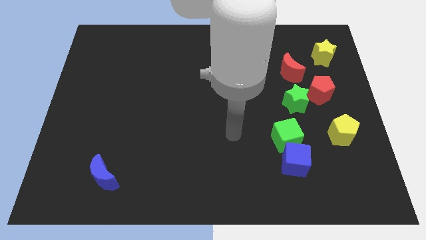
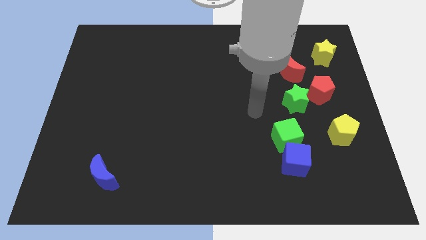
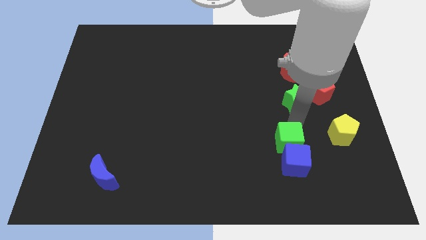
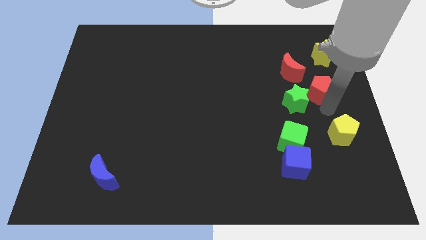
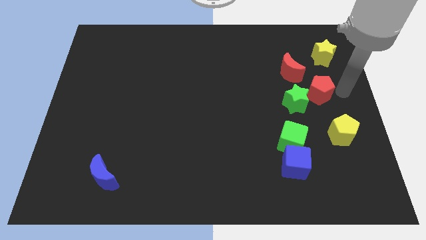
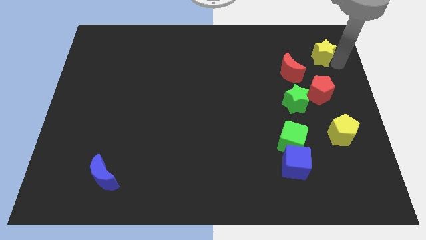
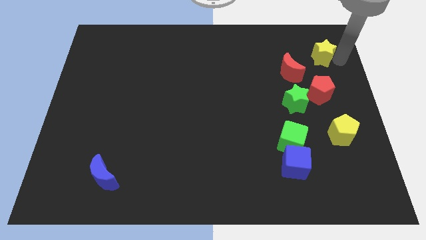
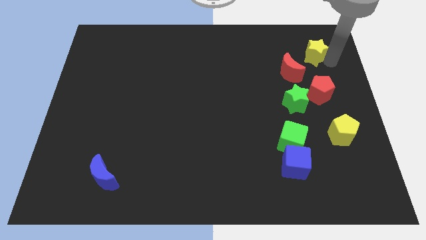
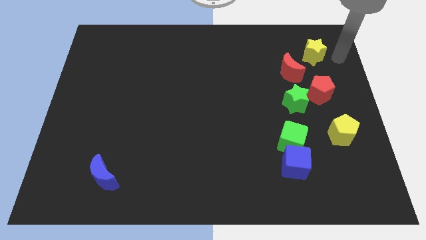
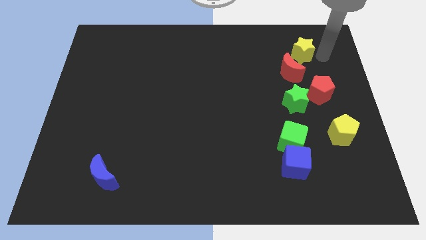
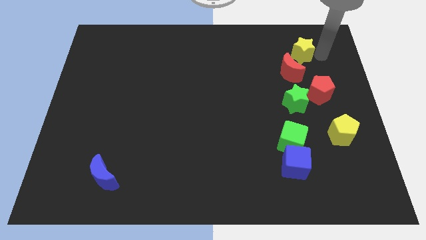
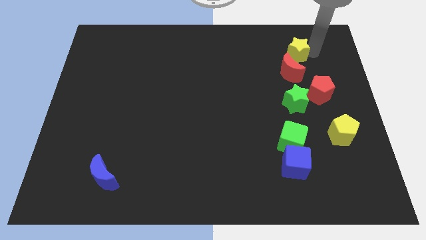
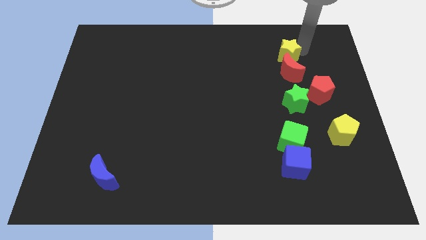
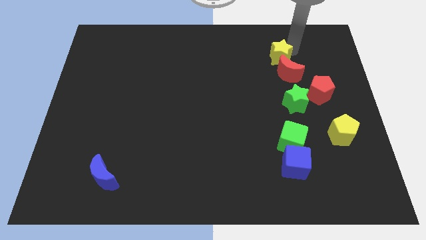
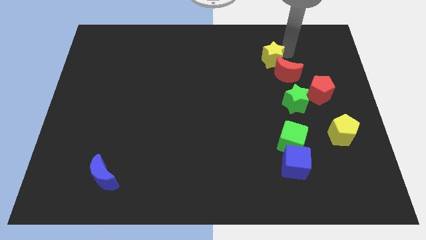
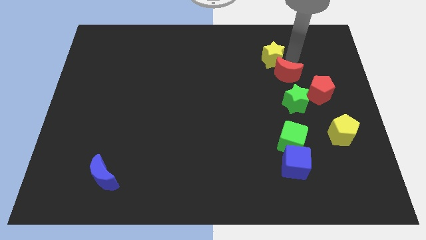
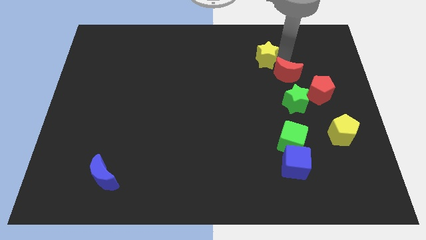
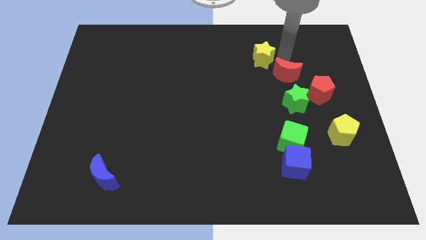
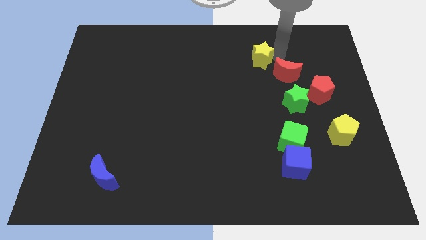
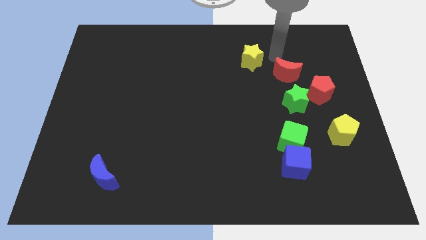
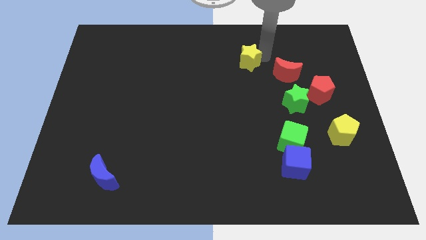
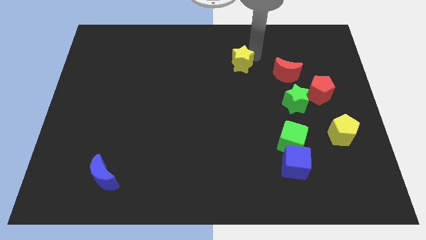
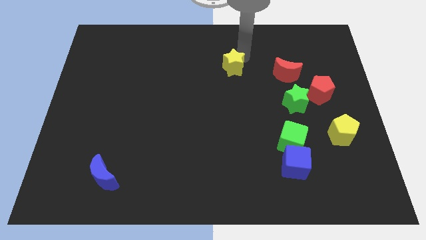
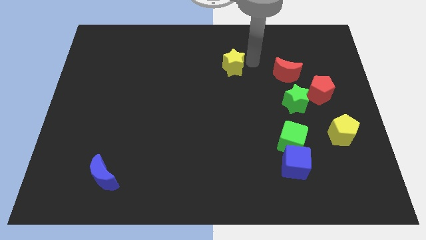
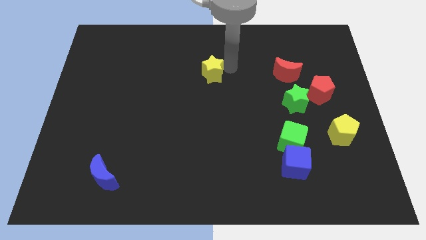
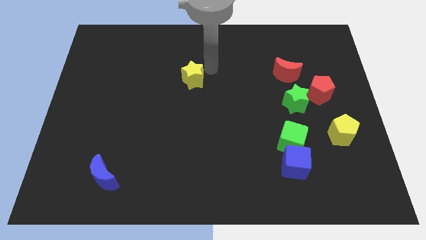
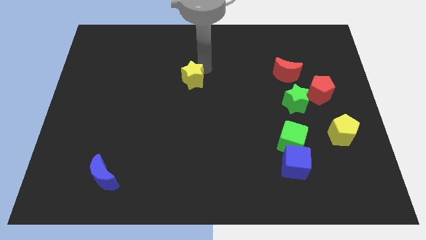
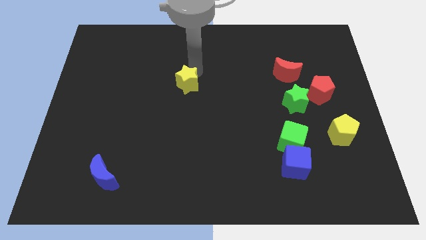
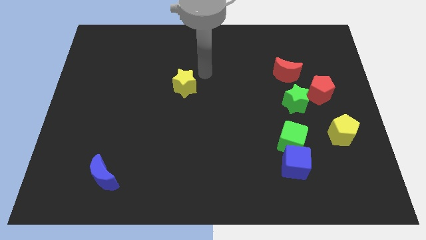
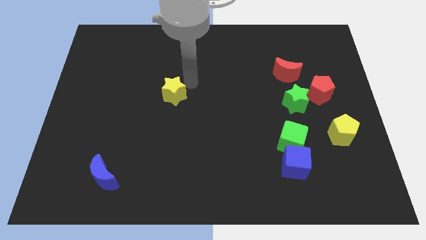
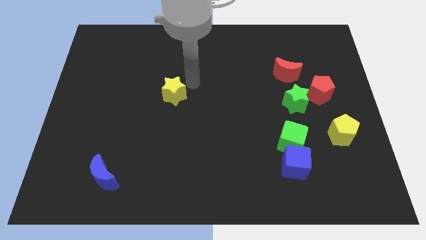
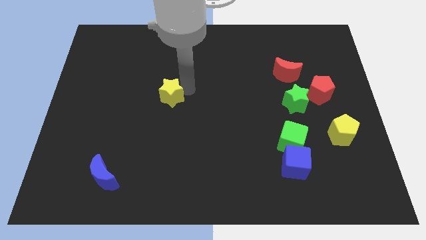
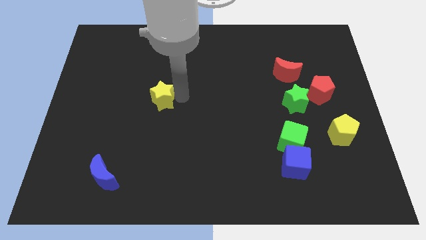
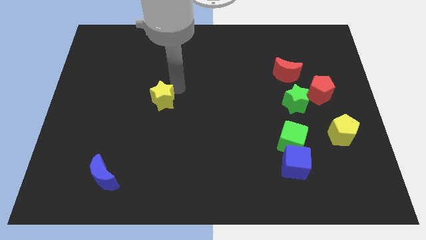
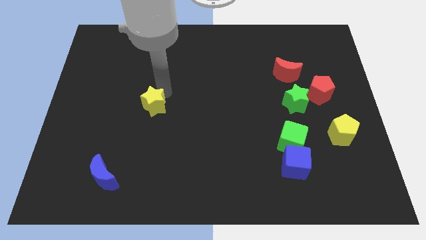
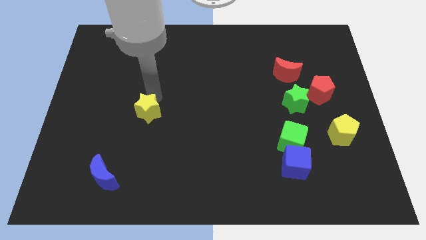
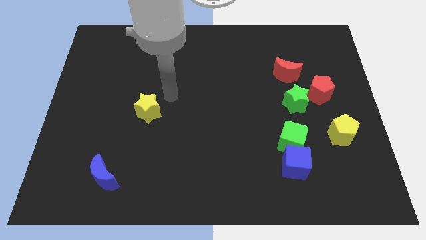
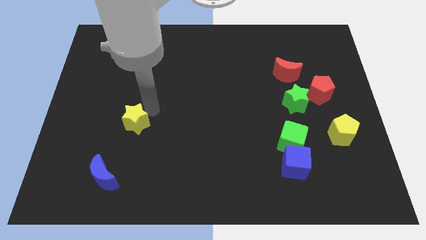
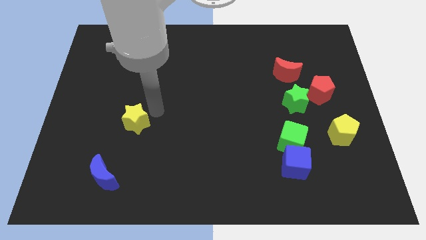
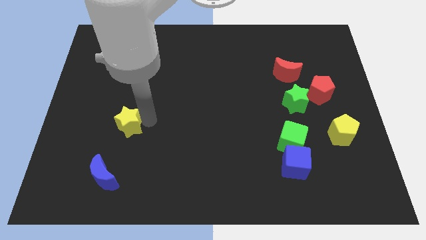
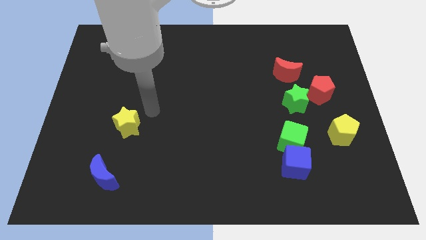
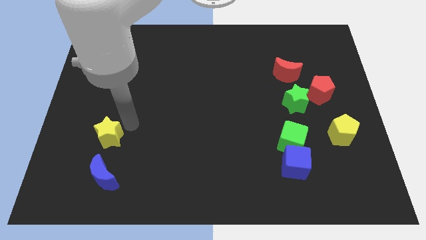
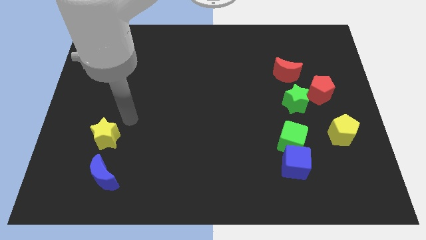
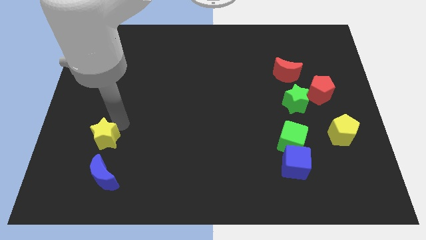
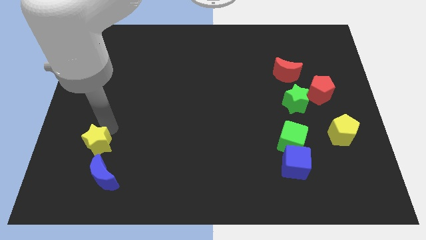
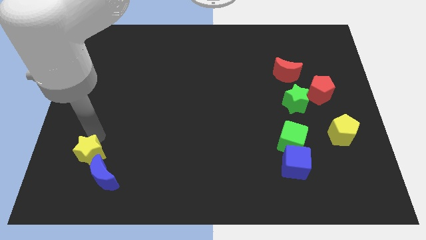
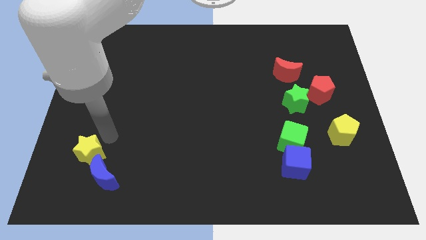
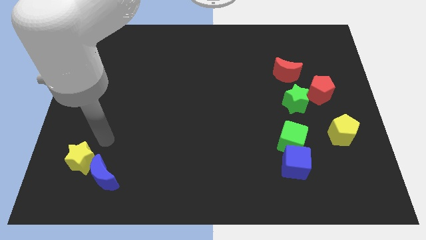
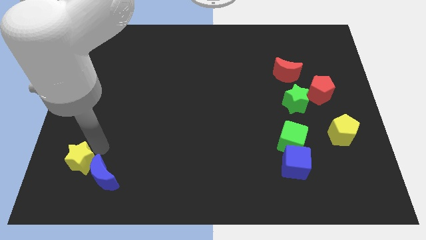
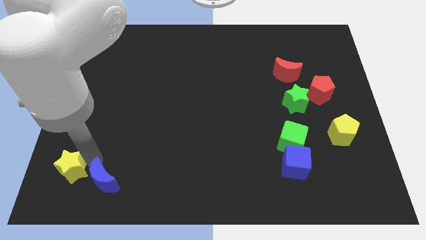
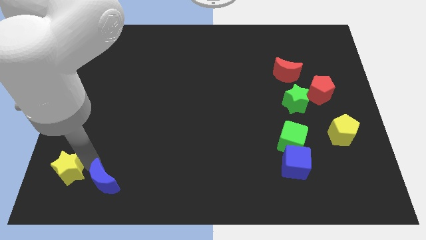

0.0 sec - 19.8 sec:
push the yellow star to the bottom left of the board

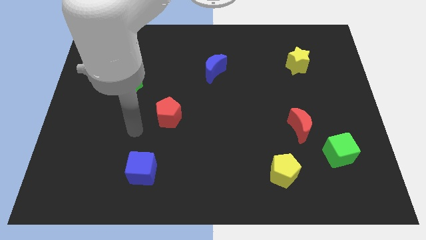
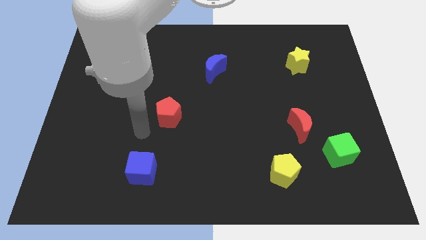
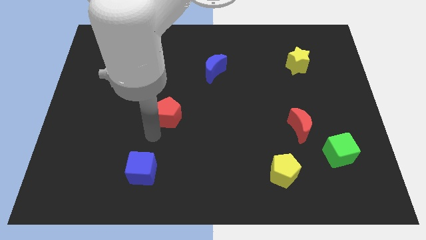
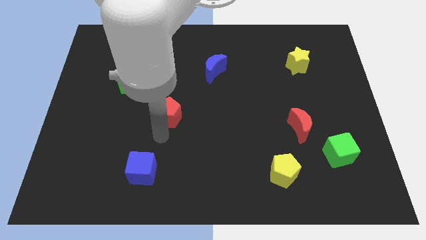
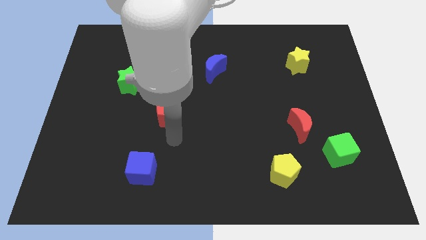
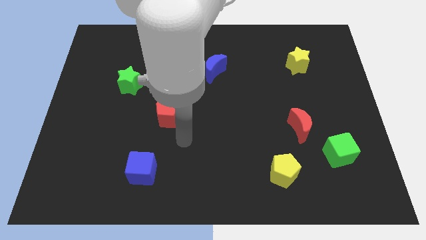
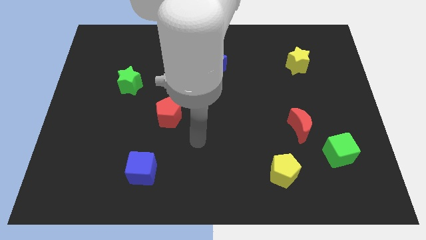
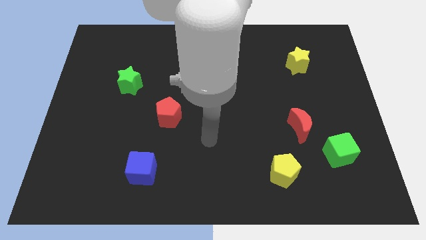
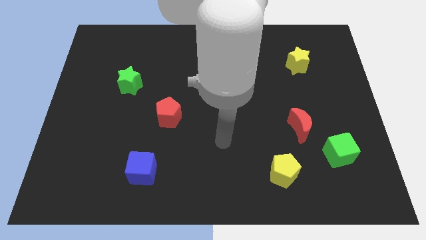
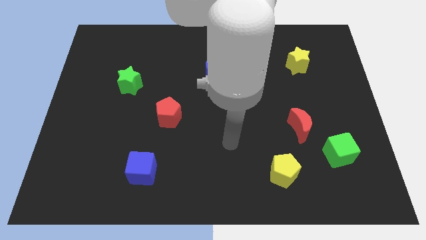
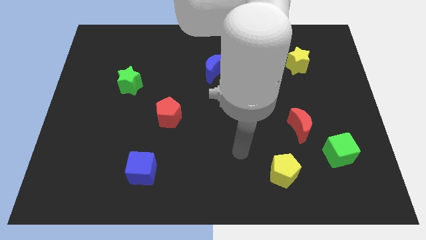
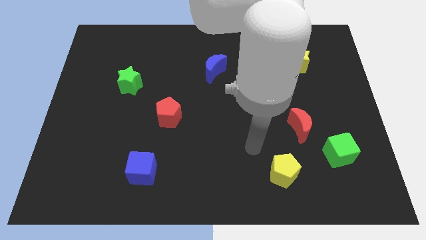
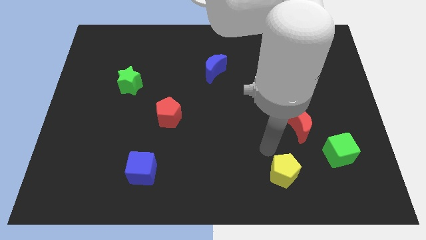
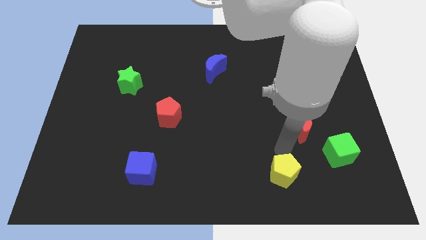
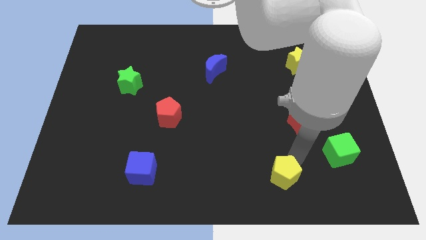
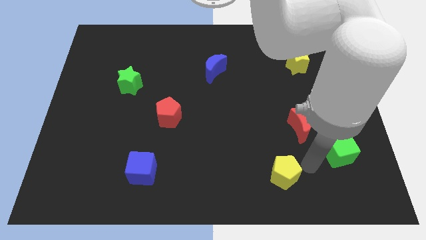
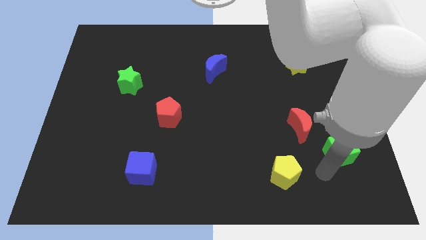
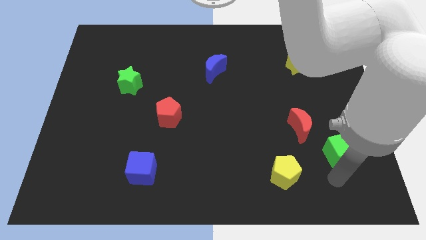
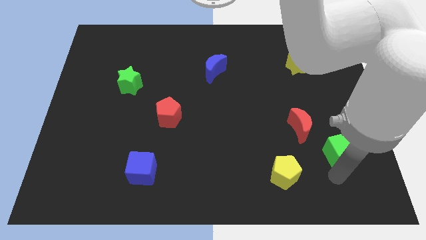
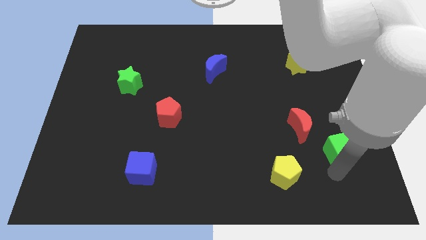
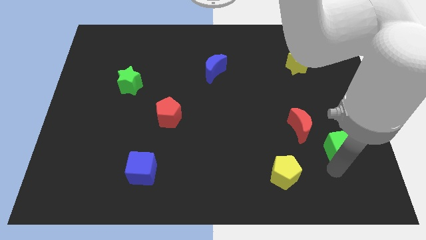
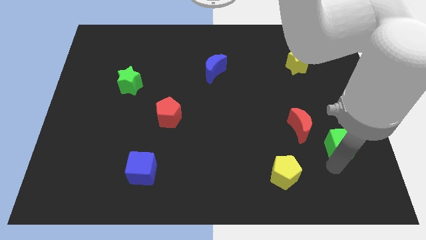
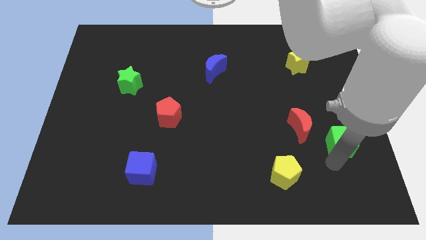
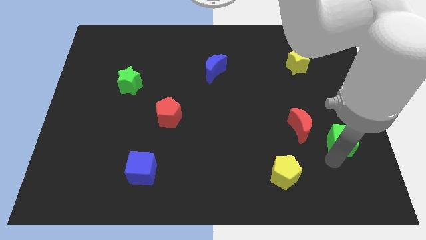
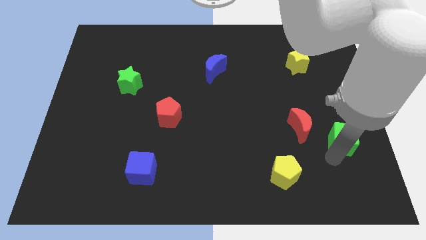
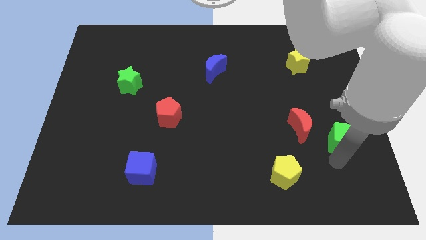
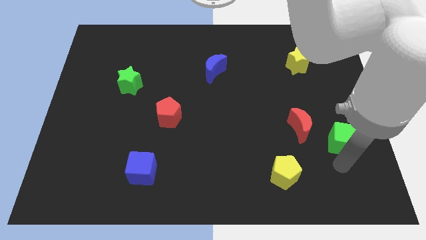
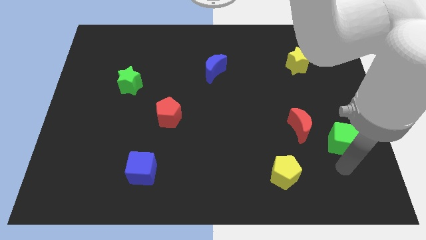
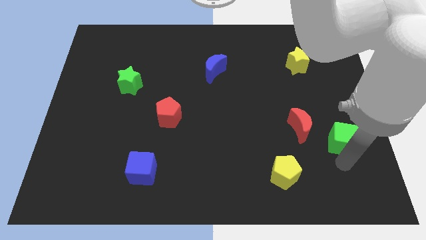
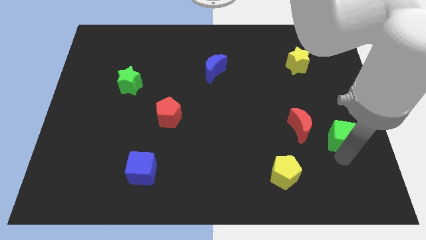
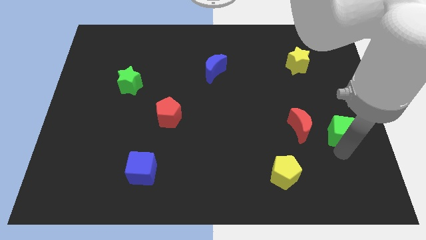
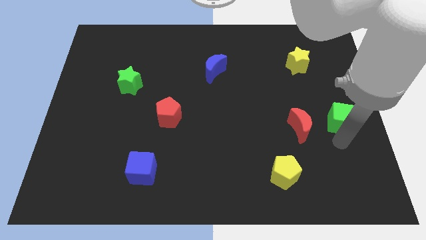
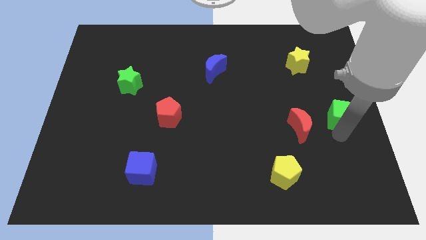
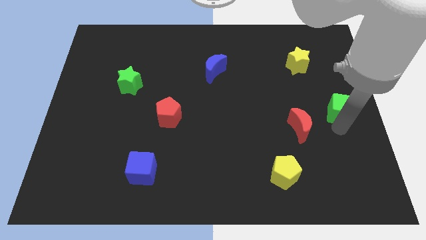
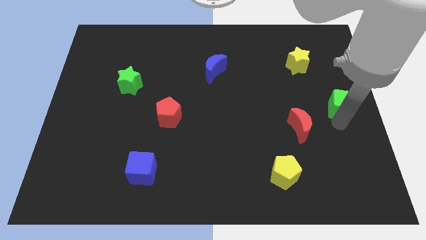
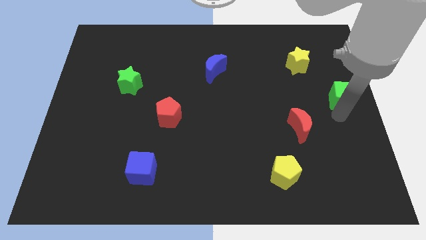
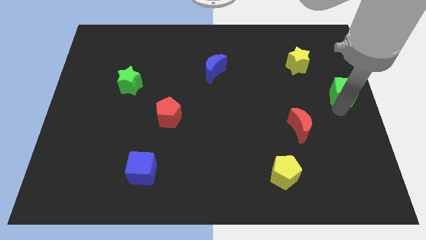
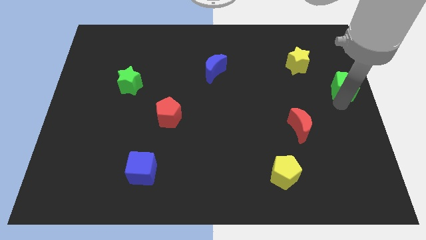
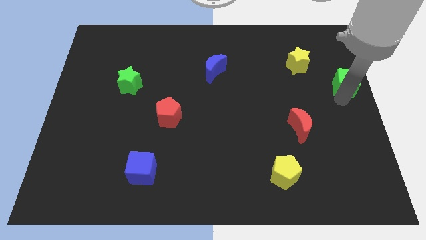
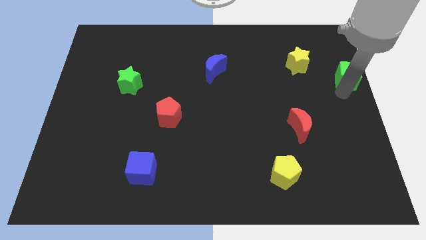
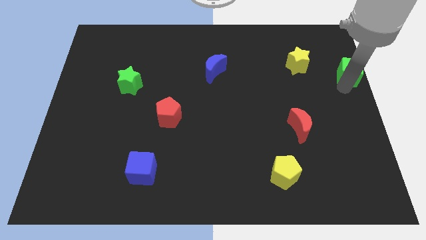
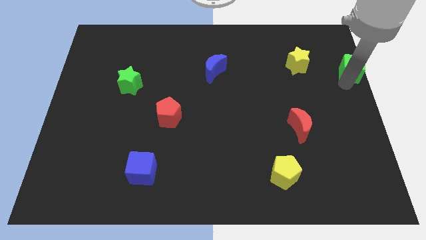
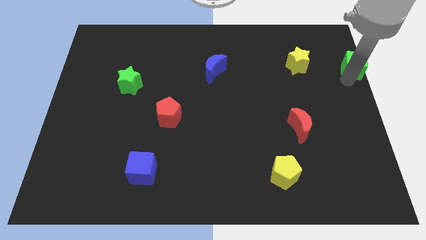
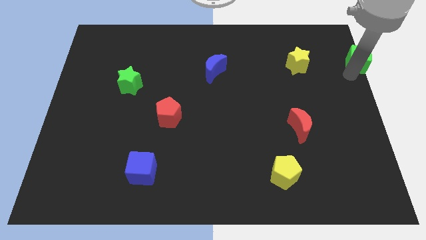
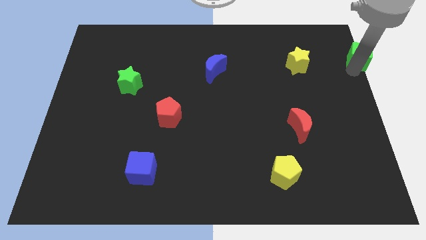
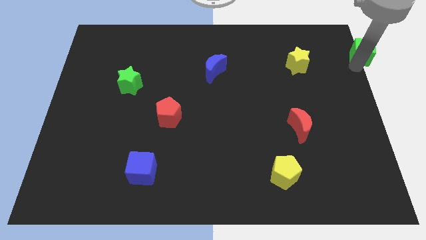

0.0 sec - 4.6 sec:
put the green cube to the top right of the board
